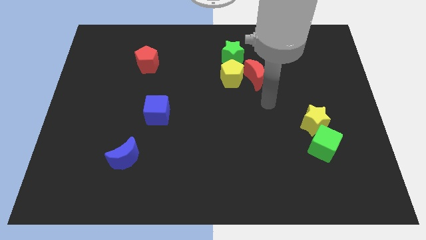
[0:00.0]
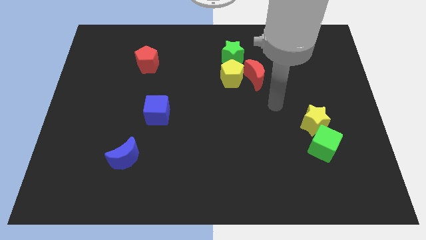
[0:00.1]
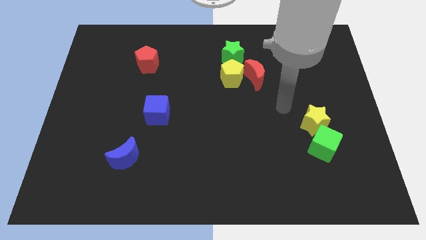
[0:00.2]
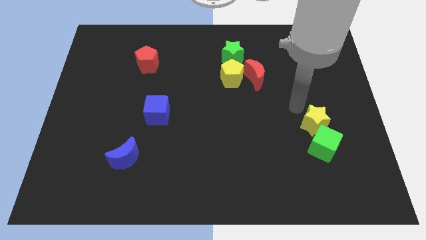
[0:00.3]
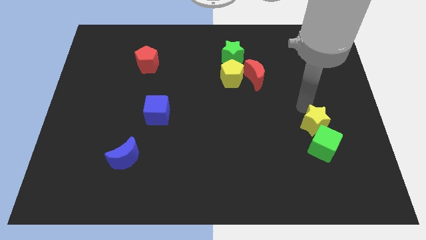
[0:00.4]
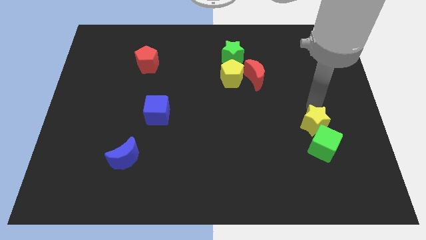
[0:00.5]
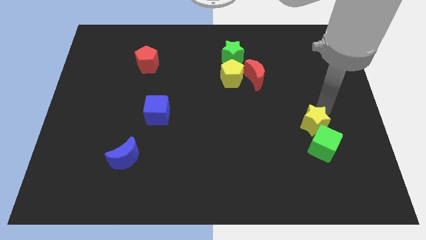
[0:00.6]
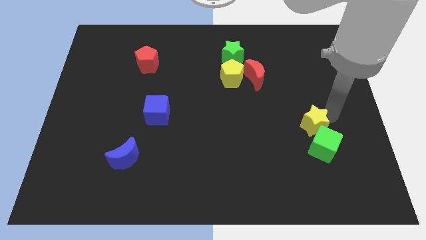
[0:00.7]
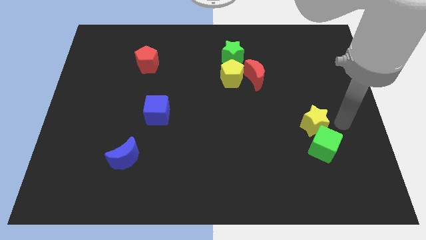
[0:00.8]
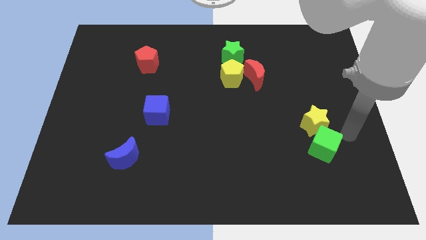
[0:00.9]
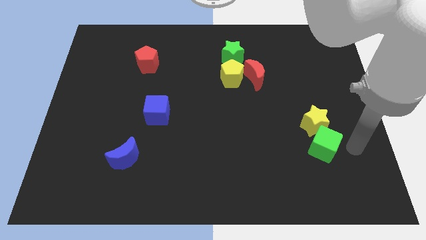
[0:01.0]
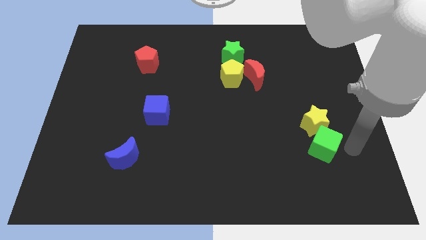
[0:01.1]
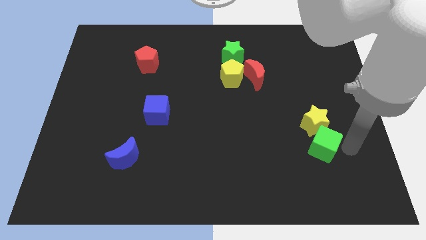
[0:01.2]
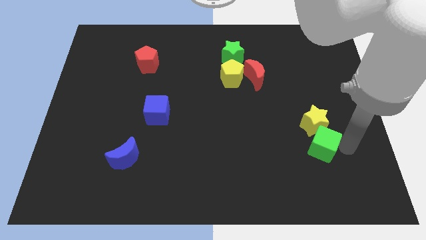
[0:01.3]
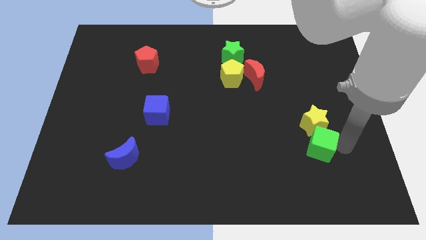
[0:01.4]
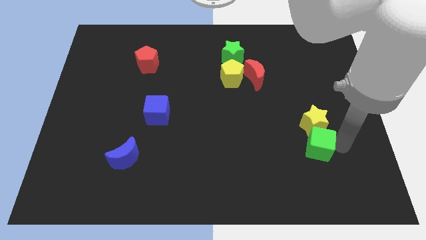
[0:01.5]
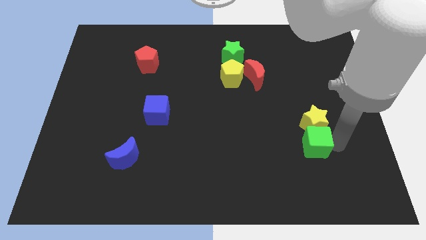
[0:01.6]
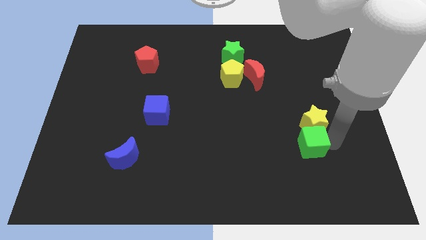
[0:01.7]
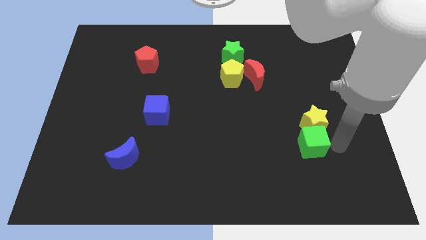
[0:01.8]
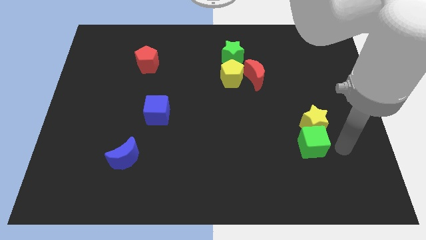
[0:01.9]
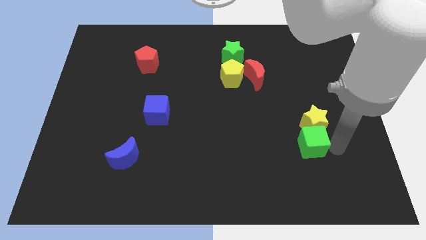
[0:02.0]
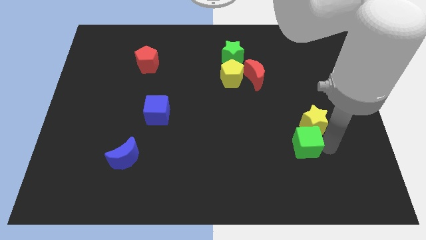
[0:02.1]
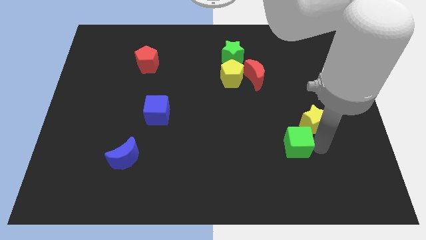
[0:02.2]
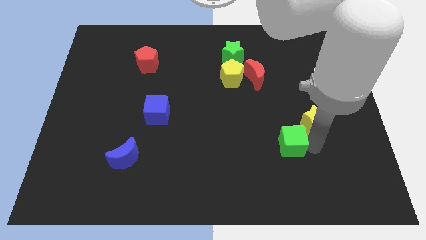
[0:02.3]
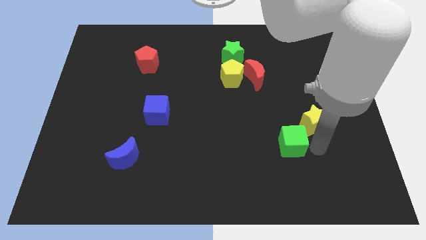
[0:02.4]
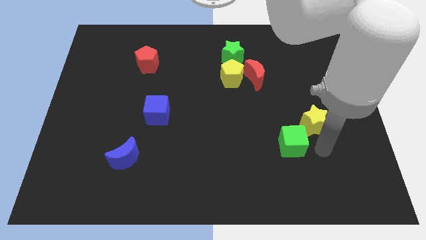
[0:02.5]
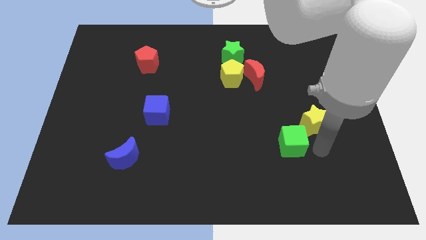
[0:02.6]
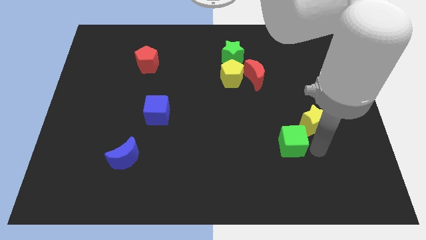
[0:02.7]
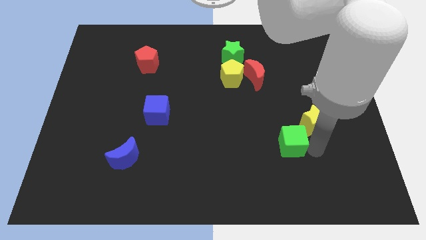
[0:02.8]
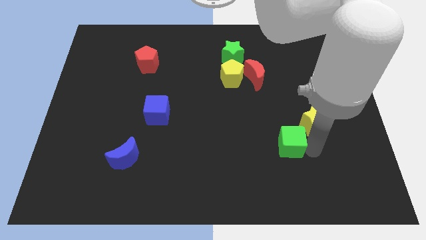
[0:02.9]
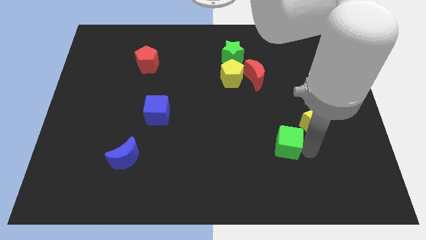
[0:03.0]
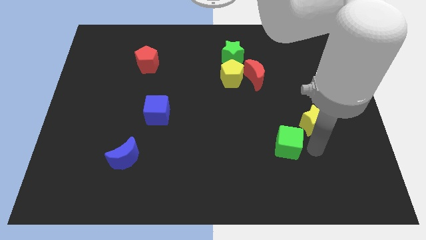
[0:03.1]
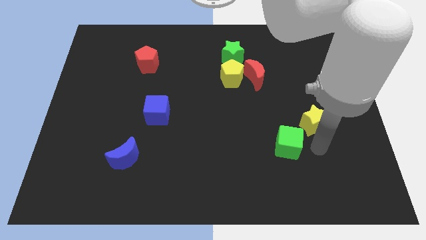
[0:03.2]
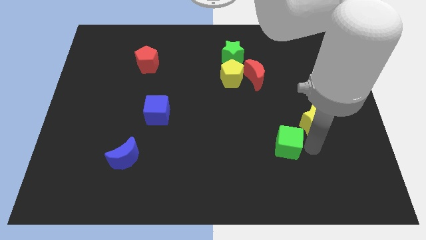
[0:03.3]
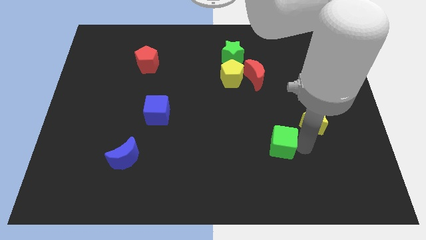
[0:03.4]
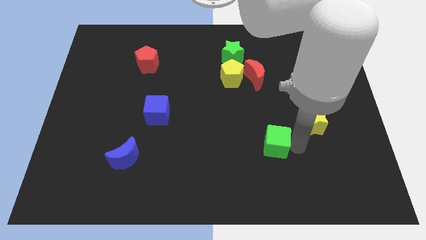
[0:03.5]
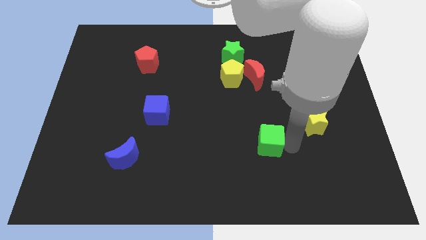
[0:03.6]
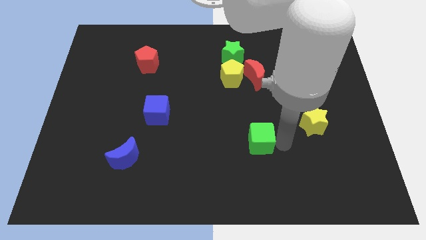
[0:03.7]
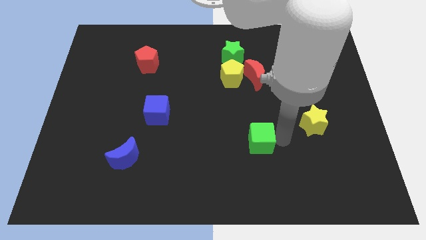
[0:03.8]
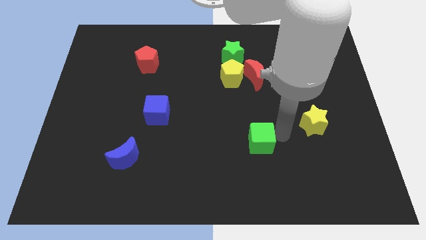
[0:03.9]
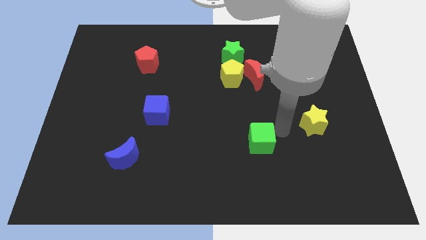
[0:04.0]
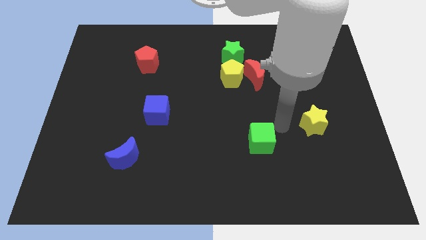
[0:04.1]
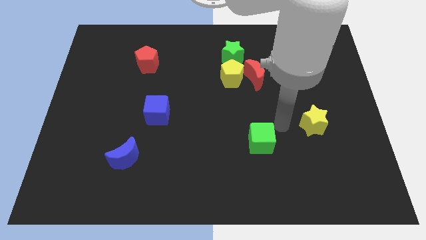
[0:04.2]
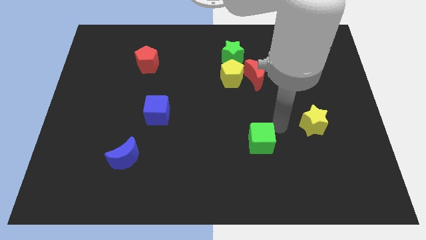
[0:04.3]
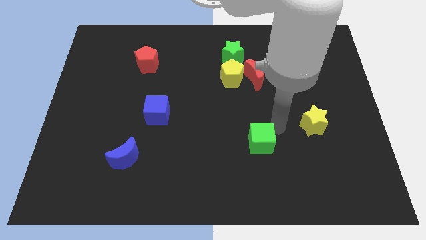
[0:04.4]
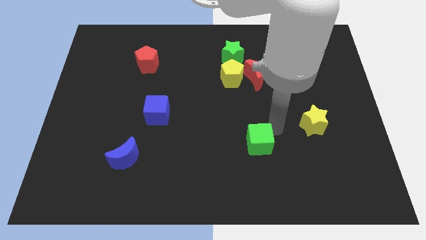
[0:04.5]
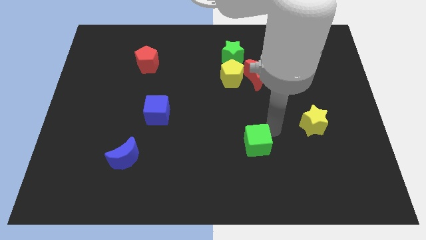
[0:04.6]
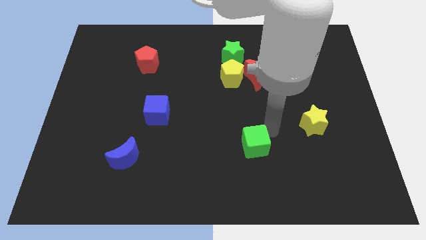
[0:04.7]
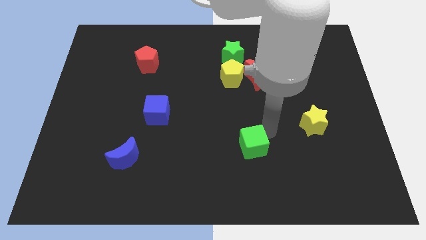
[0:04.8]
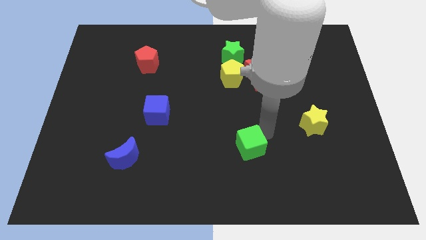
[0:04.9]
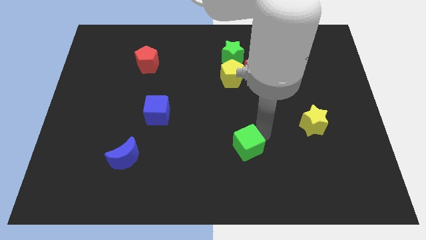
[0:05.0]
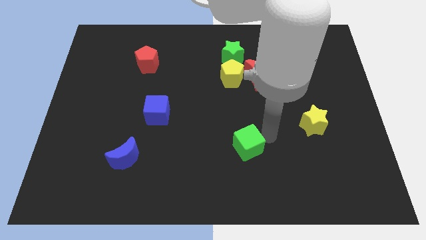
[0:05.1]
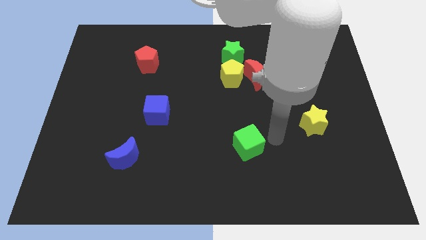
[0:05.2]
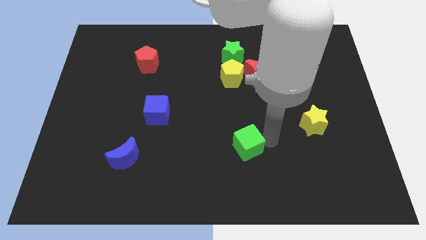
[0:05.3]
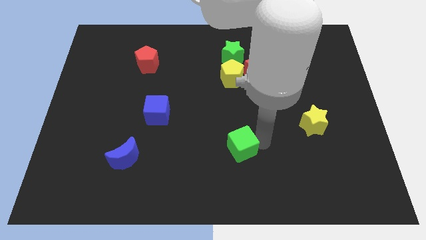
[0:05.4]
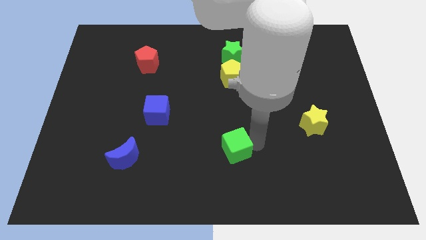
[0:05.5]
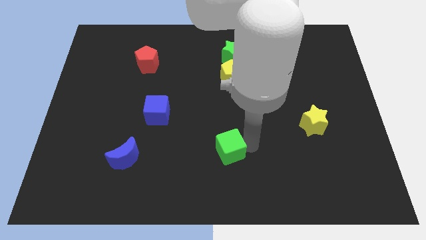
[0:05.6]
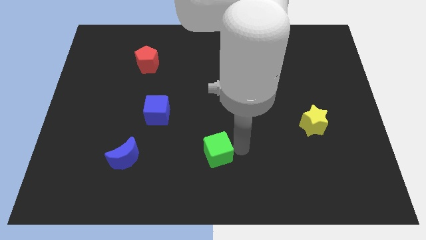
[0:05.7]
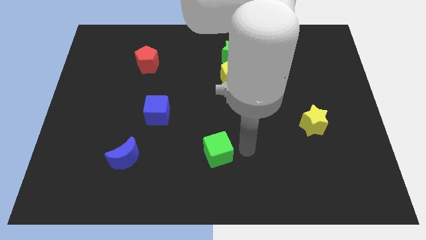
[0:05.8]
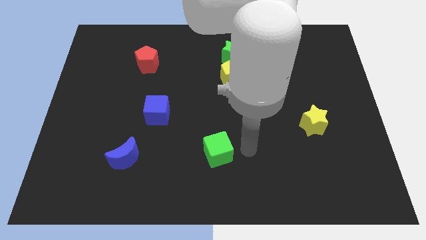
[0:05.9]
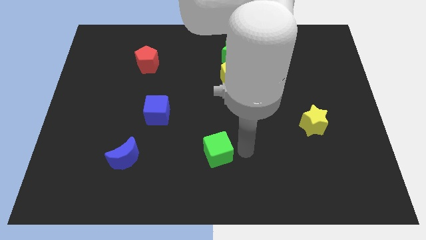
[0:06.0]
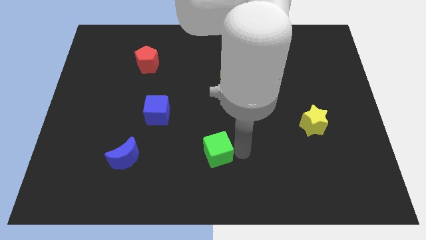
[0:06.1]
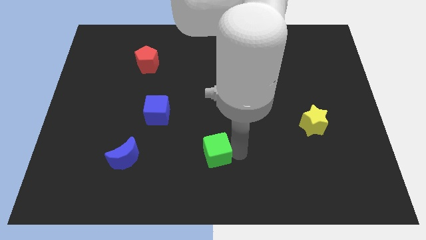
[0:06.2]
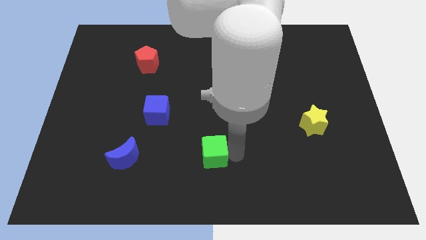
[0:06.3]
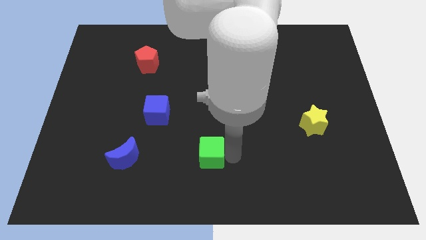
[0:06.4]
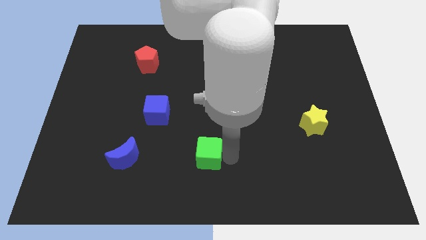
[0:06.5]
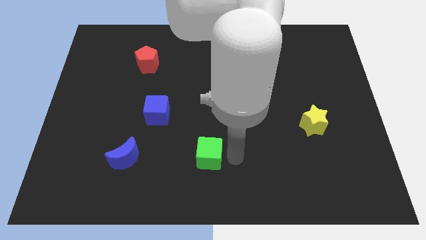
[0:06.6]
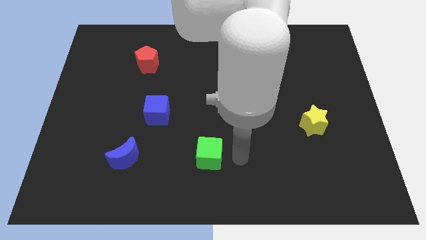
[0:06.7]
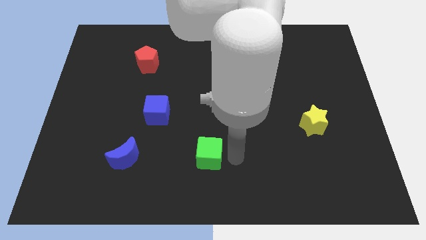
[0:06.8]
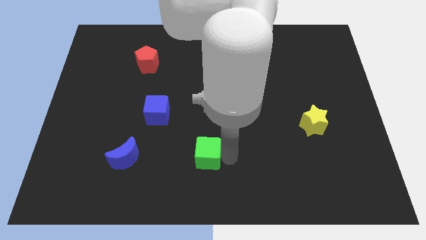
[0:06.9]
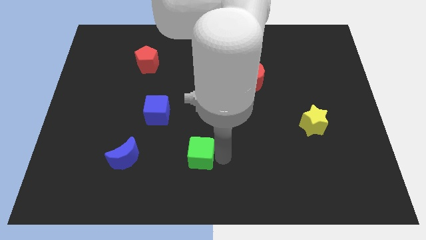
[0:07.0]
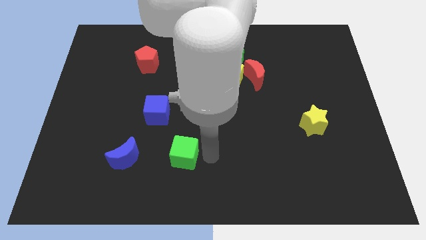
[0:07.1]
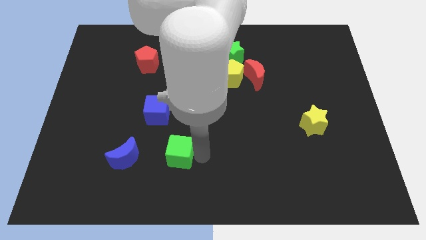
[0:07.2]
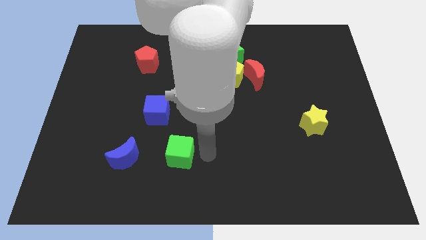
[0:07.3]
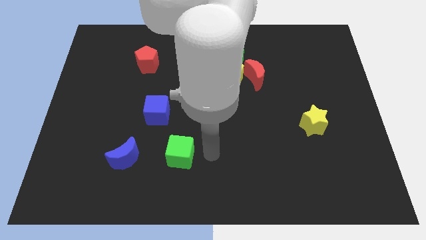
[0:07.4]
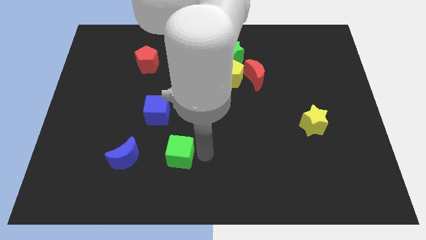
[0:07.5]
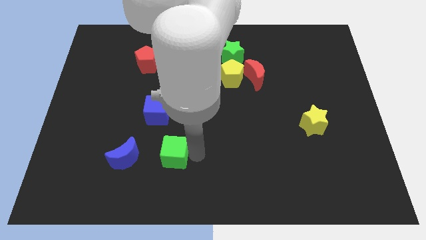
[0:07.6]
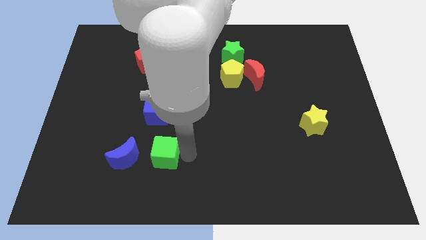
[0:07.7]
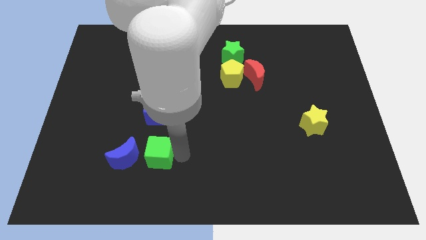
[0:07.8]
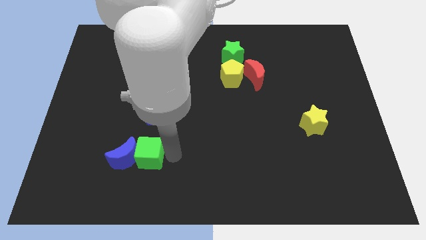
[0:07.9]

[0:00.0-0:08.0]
slide the green cube close to the blue moon

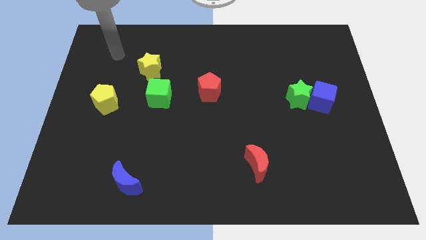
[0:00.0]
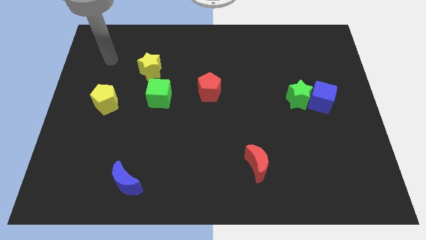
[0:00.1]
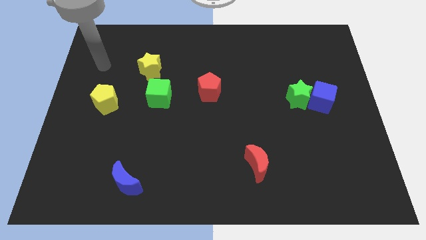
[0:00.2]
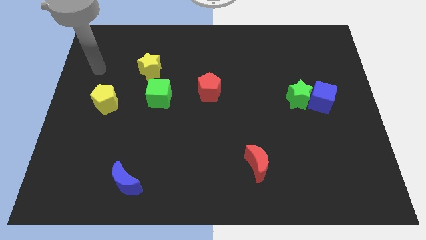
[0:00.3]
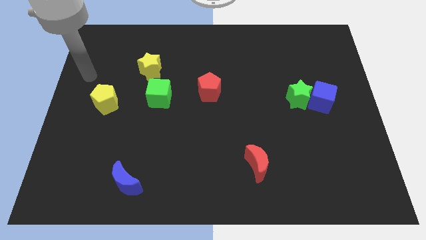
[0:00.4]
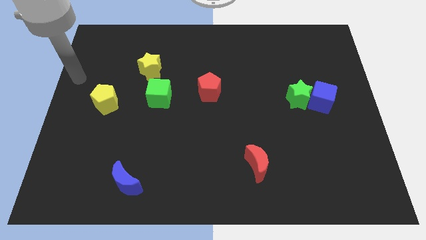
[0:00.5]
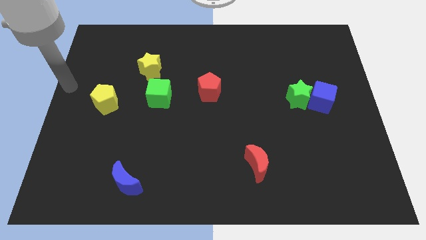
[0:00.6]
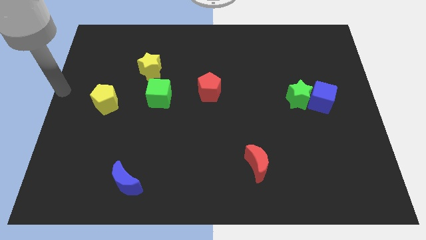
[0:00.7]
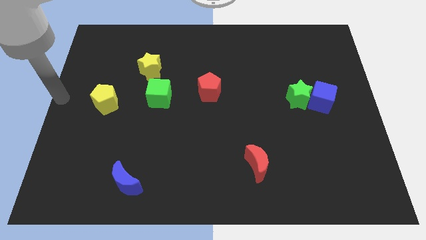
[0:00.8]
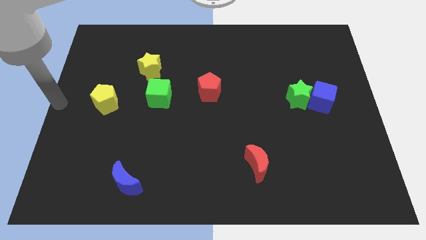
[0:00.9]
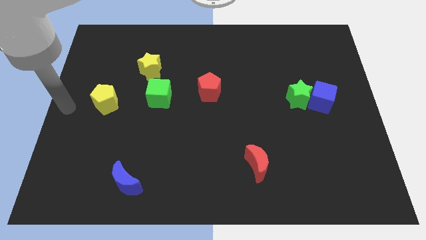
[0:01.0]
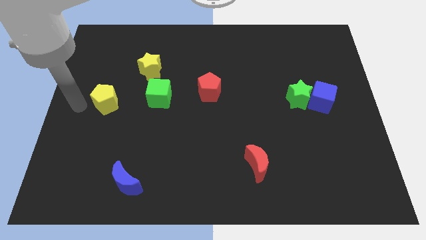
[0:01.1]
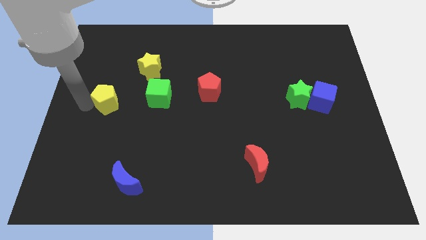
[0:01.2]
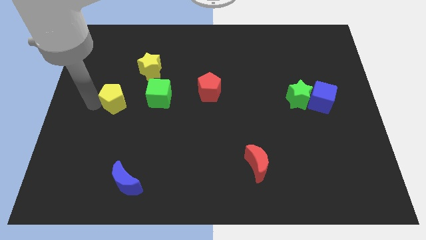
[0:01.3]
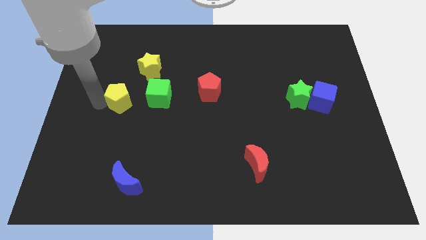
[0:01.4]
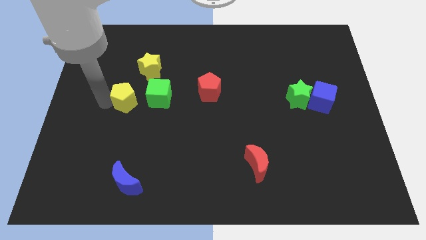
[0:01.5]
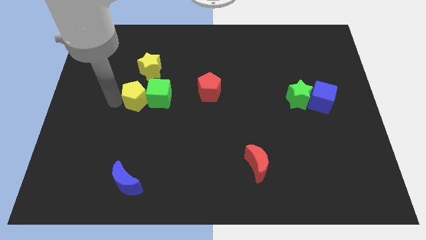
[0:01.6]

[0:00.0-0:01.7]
put the yellow pentagon towards the green cube
